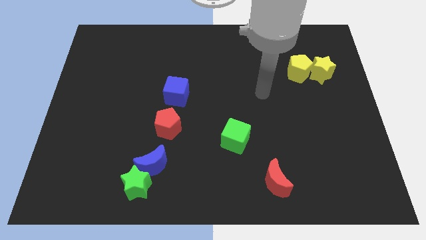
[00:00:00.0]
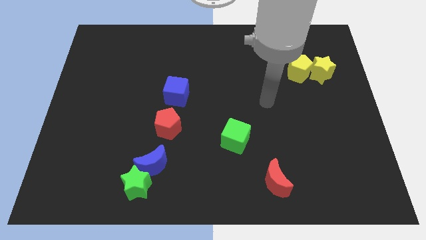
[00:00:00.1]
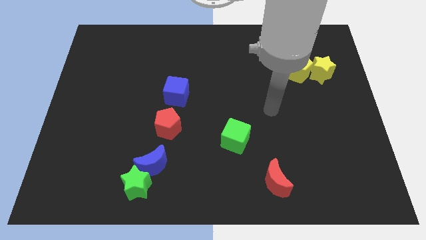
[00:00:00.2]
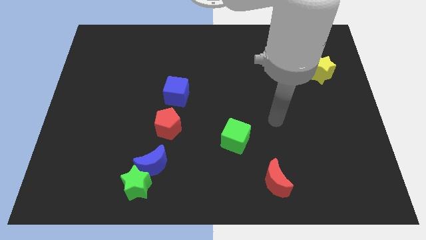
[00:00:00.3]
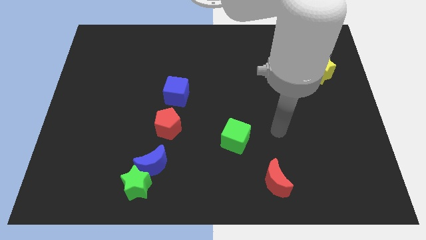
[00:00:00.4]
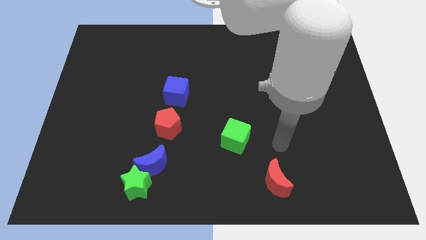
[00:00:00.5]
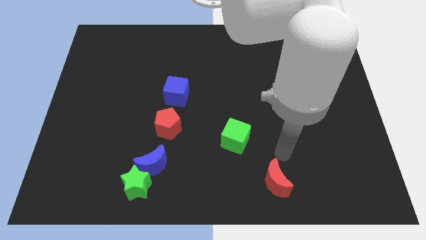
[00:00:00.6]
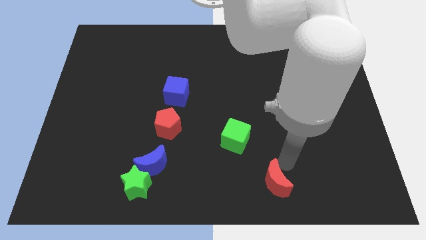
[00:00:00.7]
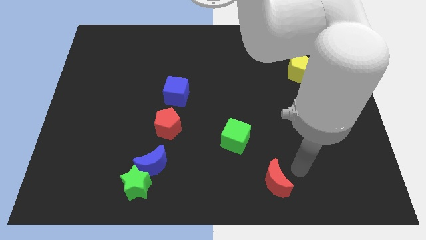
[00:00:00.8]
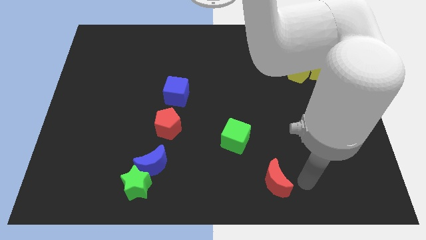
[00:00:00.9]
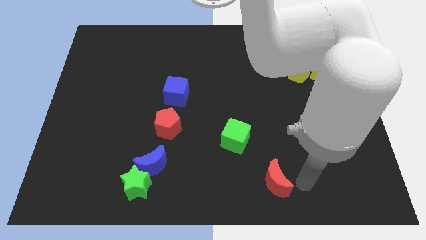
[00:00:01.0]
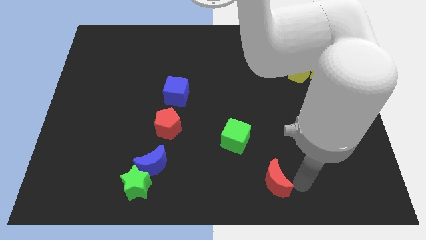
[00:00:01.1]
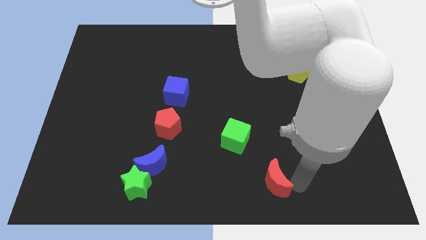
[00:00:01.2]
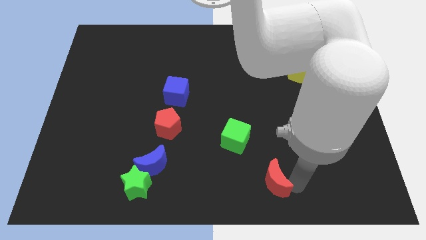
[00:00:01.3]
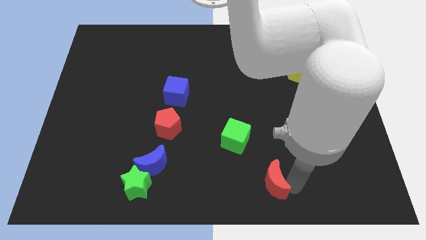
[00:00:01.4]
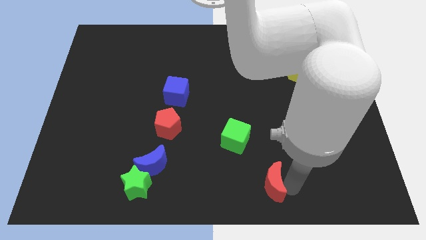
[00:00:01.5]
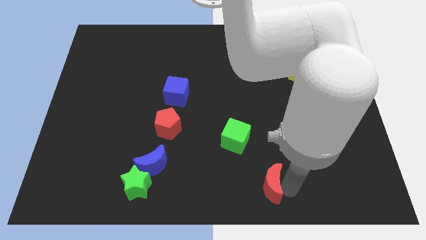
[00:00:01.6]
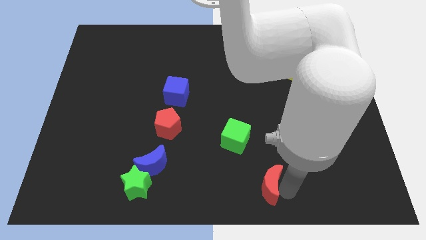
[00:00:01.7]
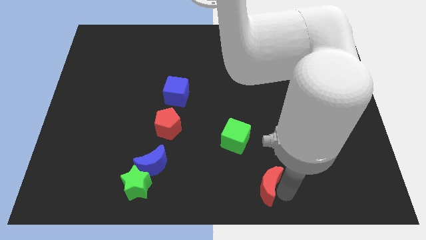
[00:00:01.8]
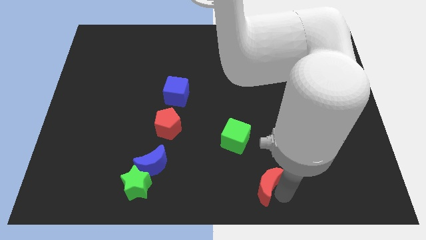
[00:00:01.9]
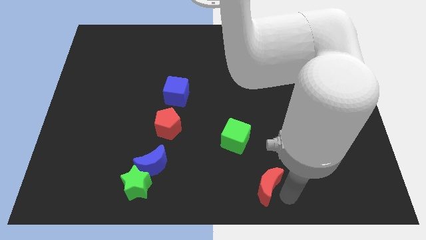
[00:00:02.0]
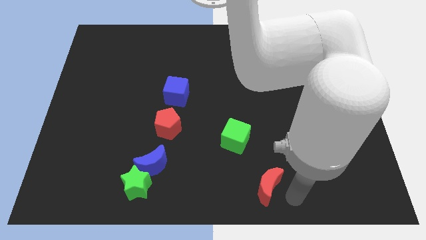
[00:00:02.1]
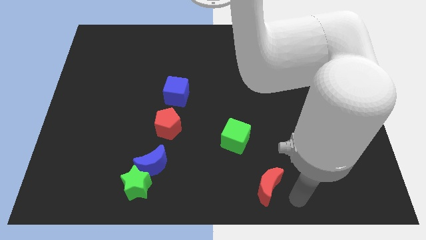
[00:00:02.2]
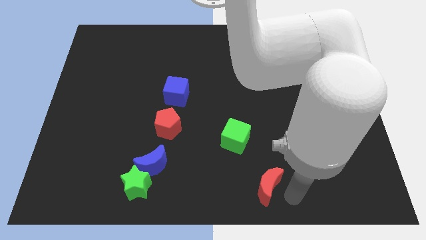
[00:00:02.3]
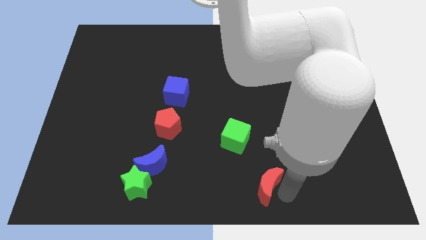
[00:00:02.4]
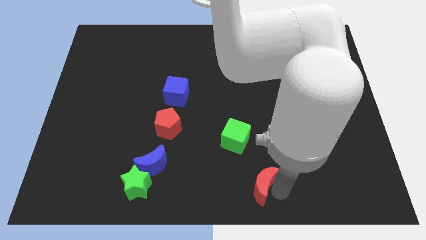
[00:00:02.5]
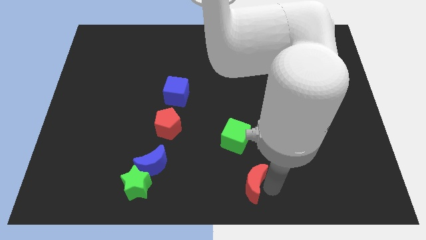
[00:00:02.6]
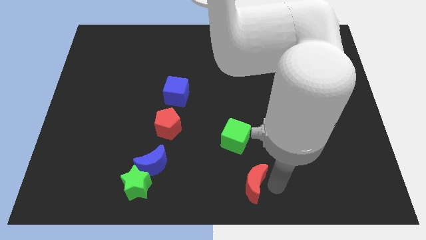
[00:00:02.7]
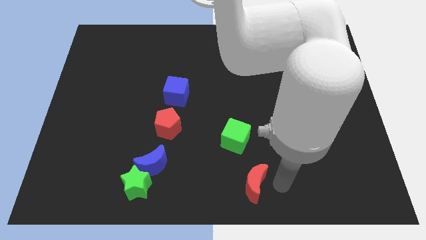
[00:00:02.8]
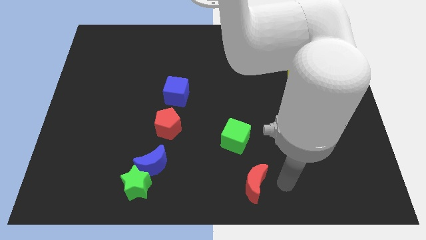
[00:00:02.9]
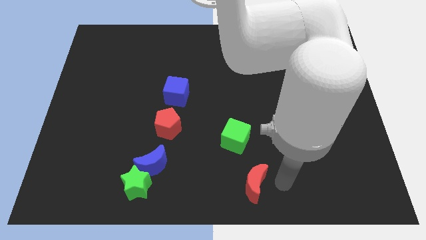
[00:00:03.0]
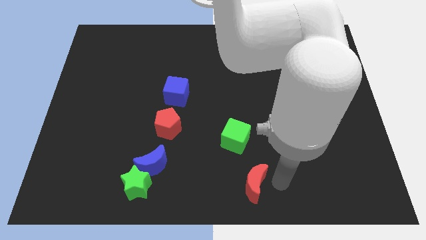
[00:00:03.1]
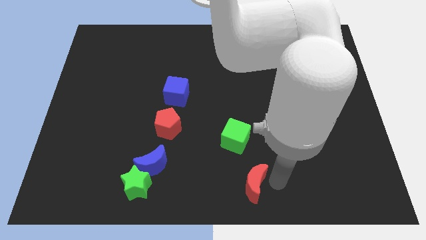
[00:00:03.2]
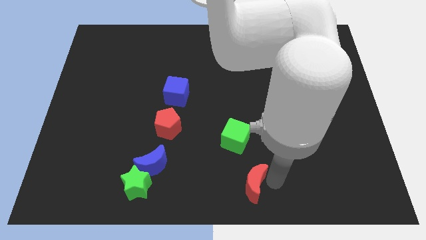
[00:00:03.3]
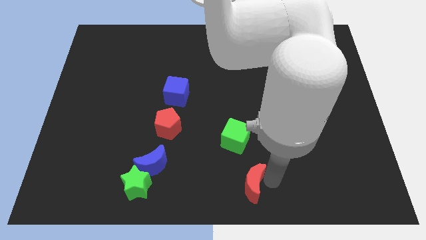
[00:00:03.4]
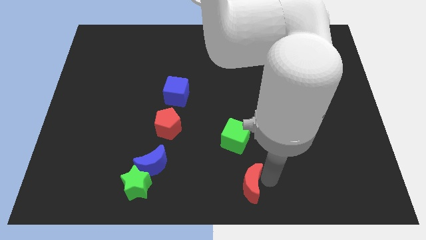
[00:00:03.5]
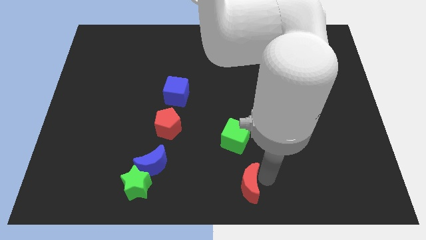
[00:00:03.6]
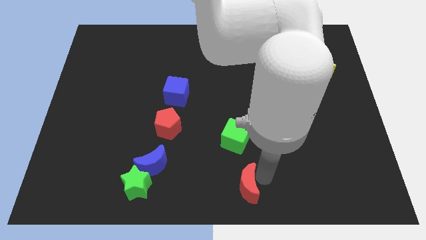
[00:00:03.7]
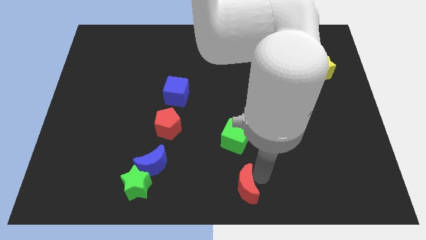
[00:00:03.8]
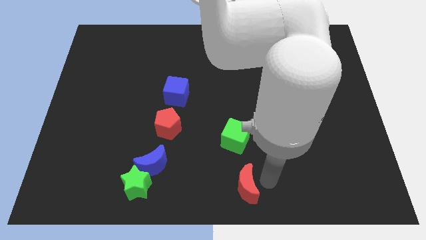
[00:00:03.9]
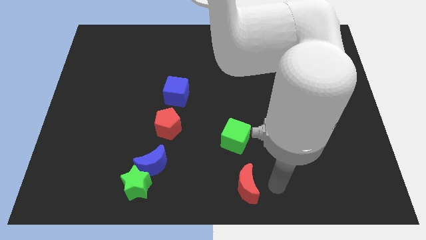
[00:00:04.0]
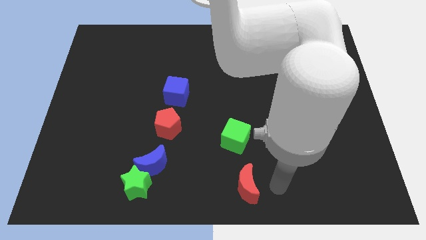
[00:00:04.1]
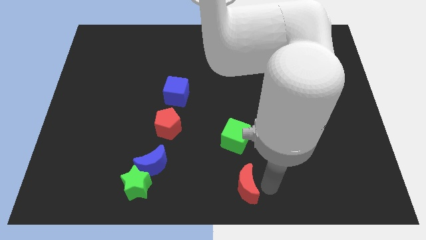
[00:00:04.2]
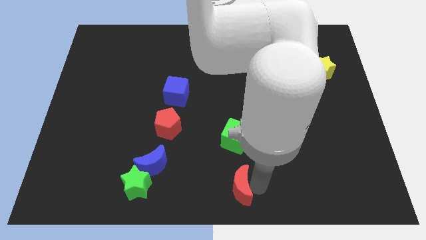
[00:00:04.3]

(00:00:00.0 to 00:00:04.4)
push the red moon a little left

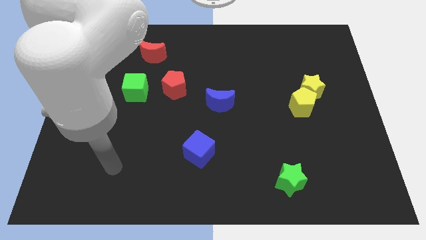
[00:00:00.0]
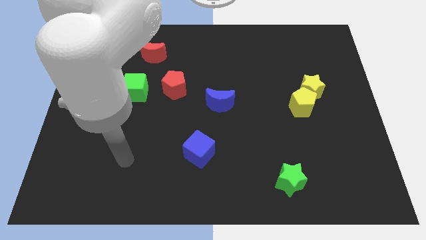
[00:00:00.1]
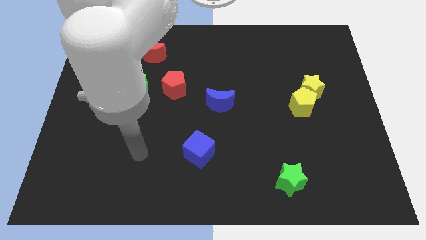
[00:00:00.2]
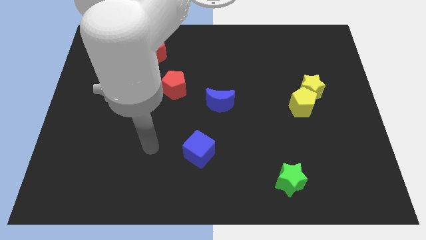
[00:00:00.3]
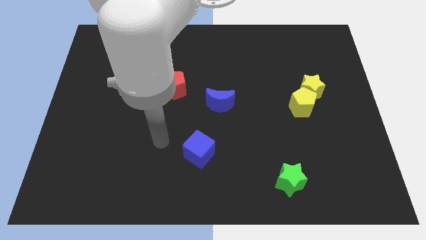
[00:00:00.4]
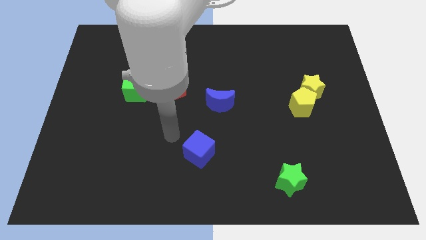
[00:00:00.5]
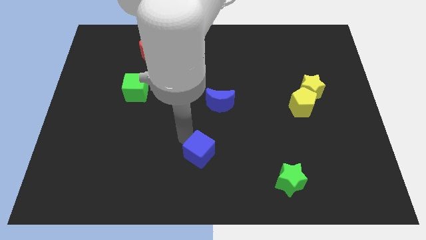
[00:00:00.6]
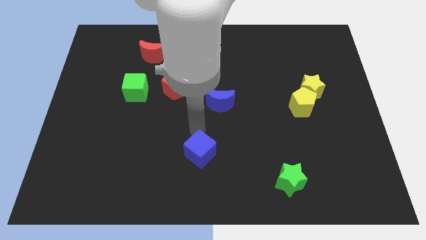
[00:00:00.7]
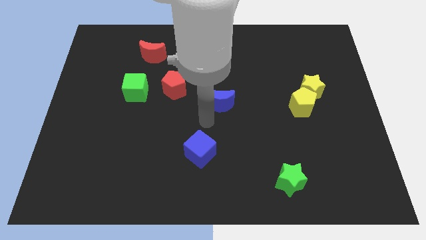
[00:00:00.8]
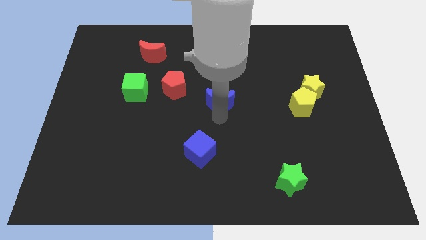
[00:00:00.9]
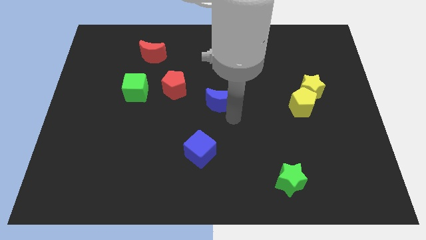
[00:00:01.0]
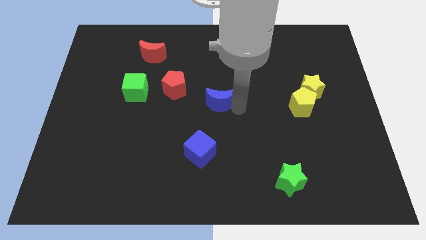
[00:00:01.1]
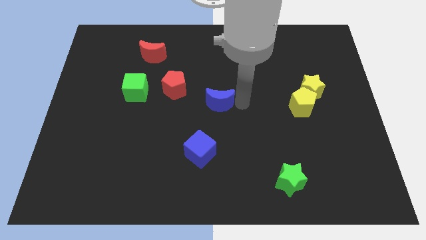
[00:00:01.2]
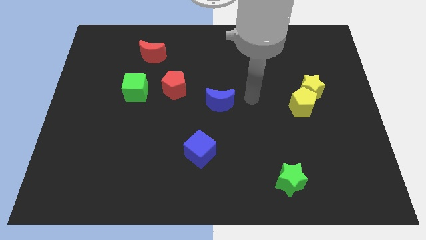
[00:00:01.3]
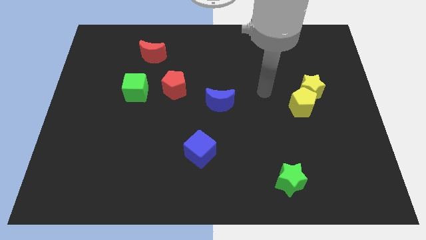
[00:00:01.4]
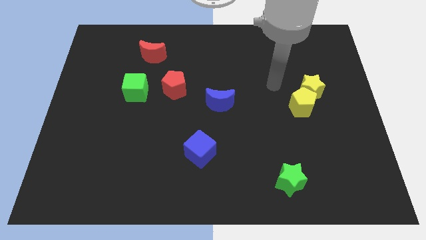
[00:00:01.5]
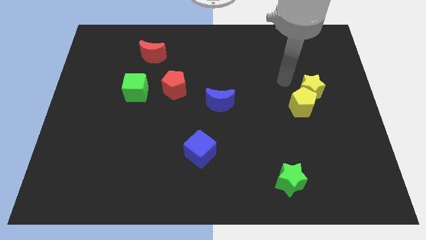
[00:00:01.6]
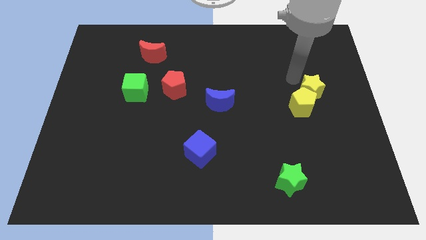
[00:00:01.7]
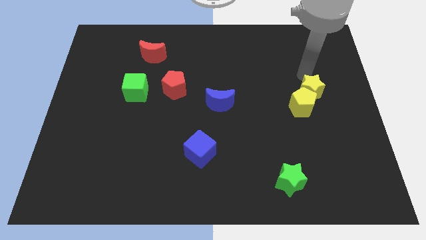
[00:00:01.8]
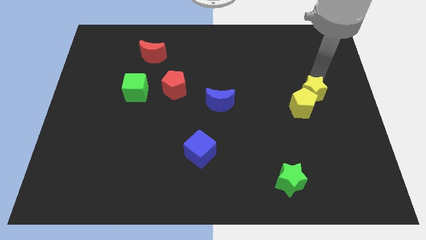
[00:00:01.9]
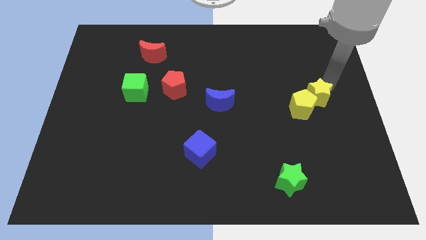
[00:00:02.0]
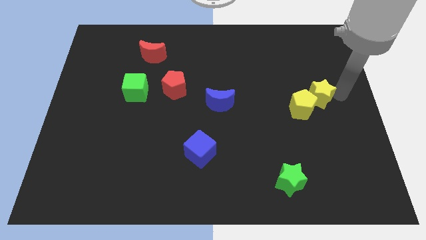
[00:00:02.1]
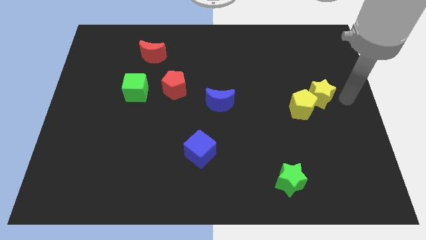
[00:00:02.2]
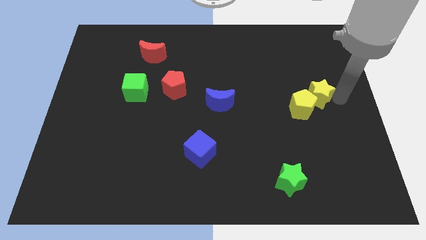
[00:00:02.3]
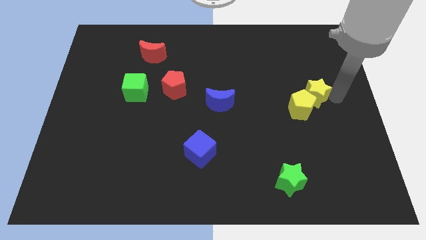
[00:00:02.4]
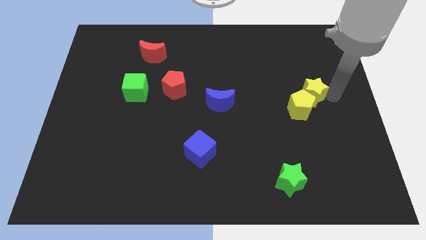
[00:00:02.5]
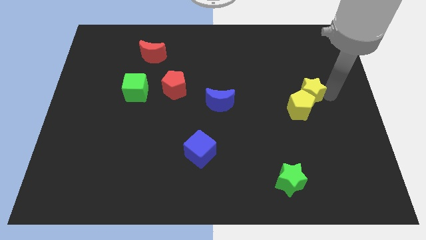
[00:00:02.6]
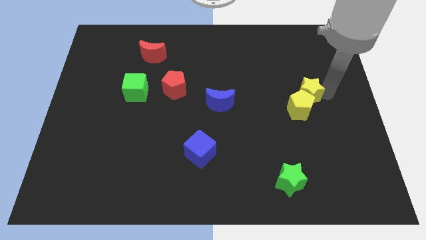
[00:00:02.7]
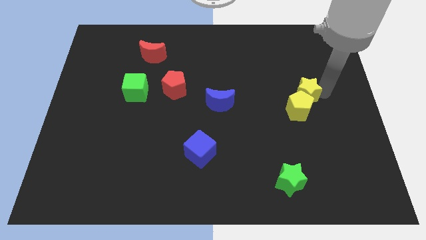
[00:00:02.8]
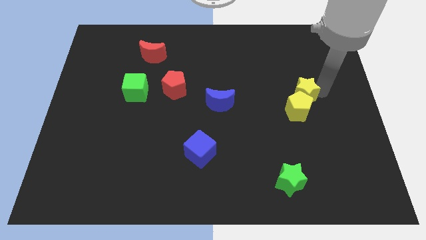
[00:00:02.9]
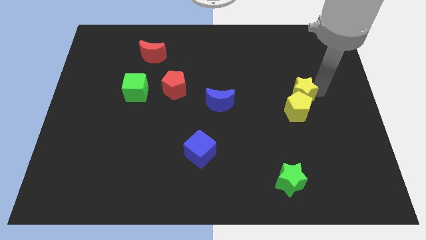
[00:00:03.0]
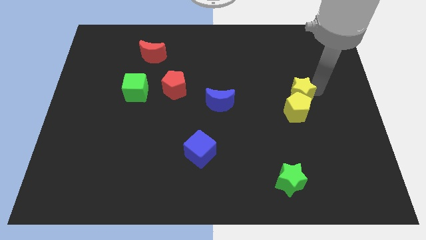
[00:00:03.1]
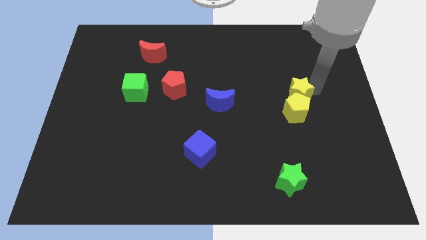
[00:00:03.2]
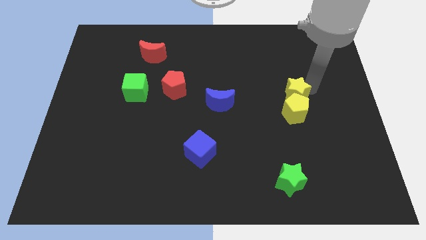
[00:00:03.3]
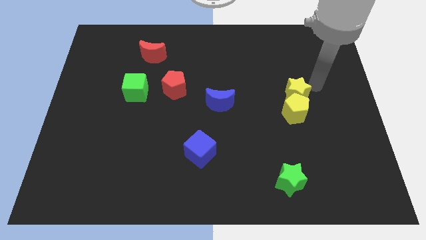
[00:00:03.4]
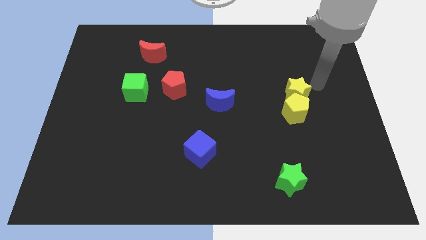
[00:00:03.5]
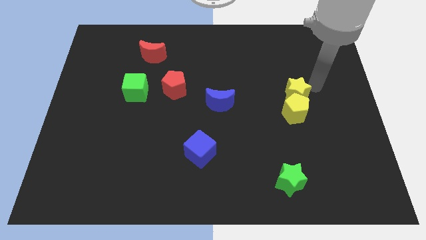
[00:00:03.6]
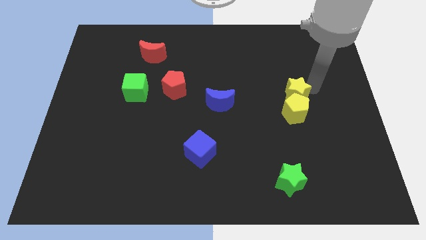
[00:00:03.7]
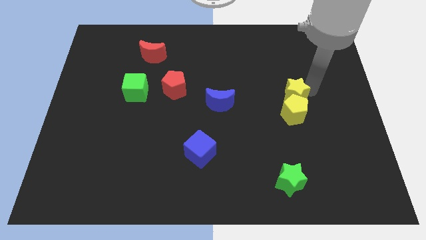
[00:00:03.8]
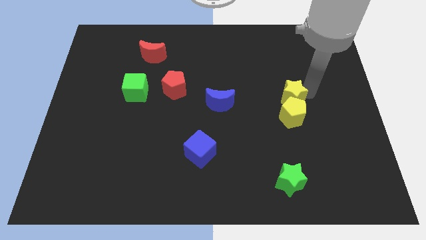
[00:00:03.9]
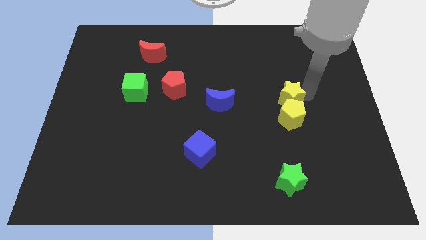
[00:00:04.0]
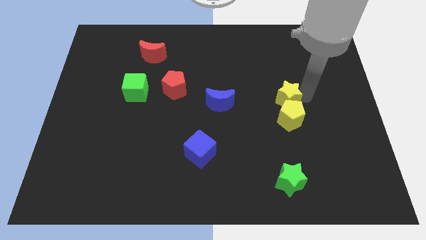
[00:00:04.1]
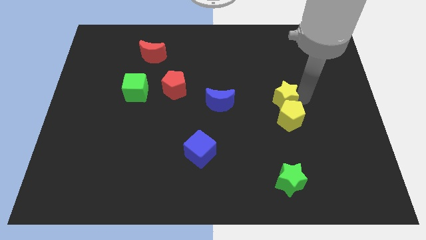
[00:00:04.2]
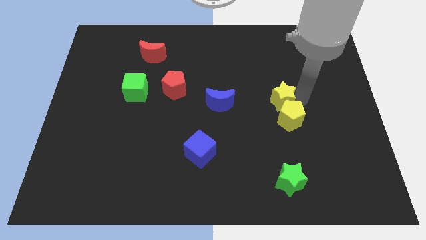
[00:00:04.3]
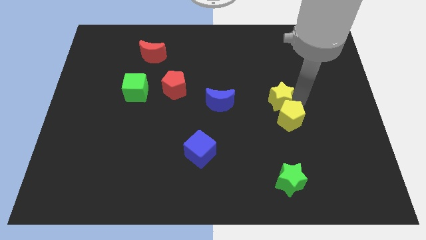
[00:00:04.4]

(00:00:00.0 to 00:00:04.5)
move the yellow star diagonally down and to the left a little
